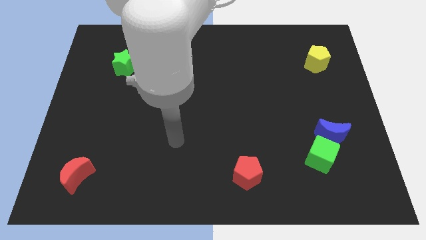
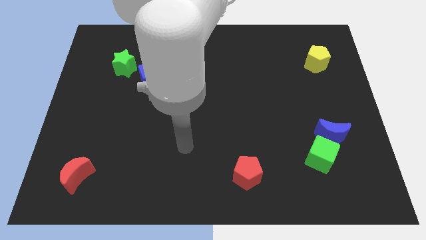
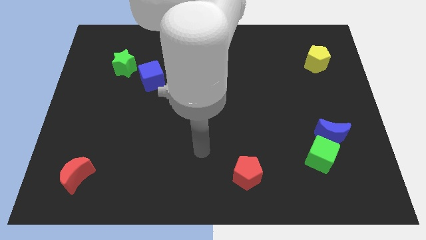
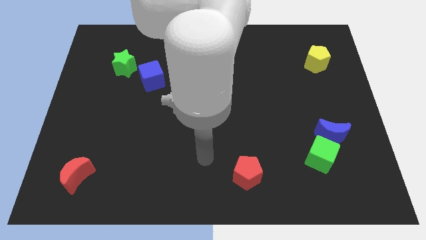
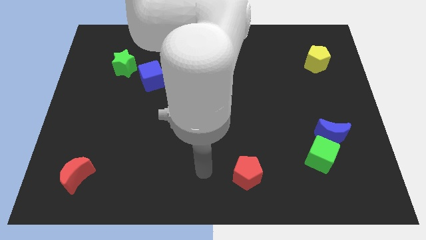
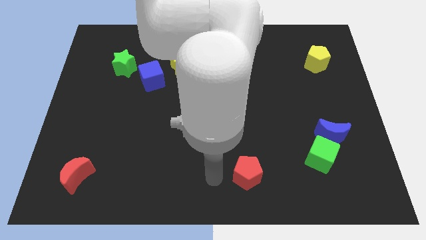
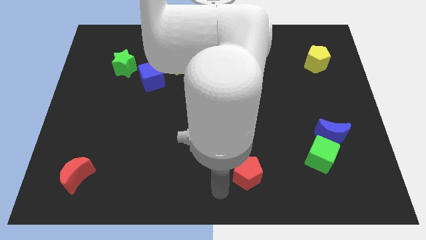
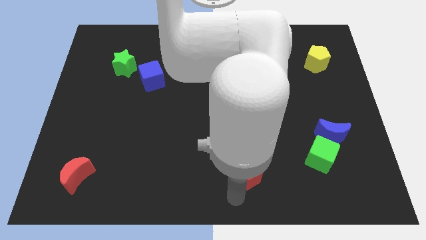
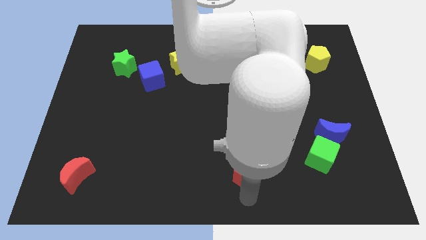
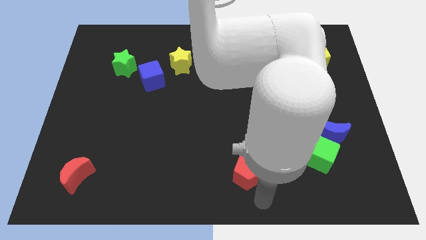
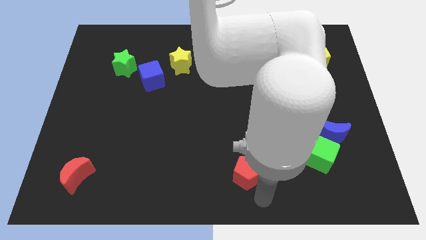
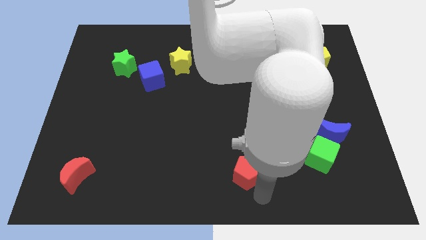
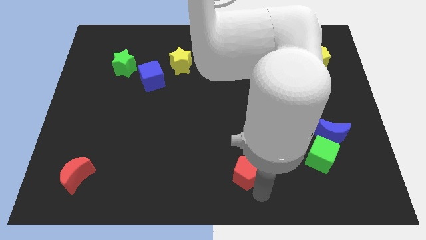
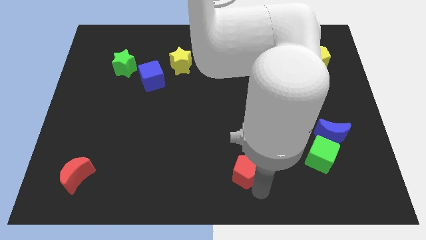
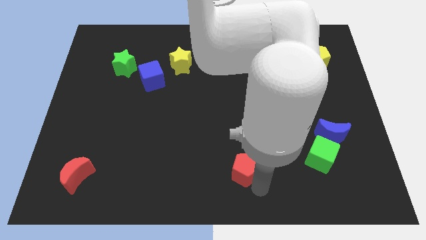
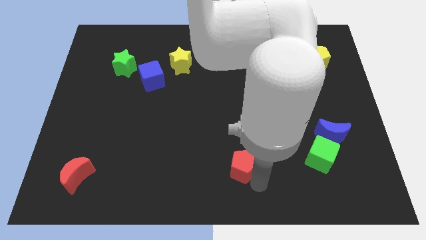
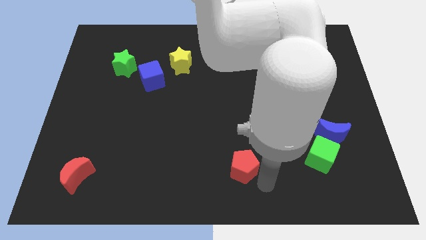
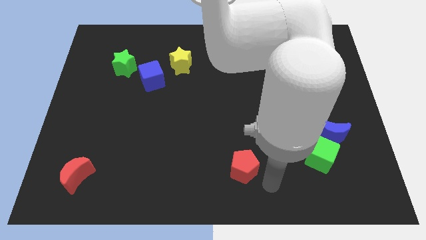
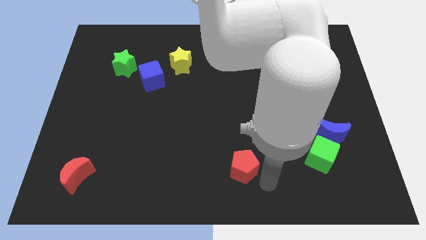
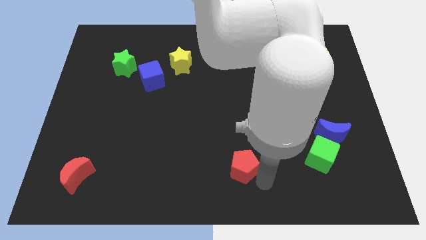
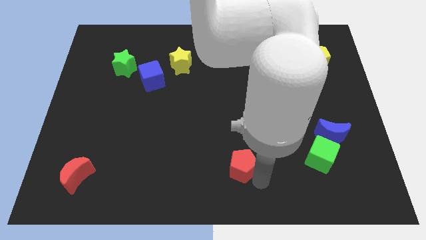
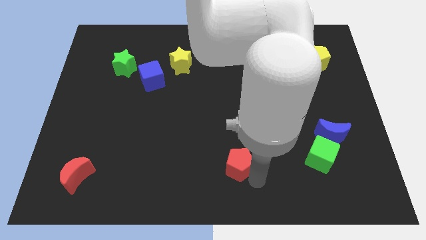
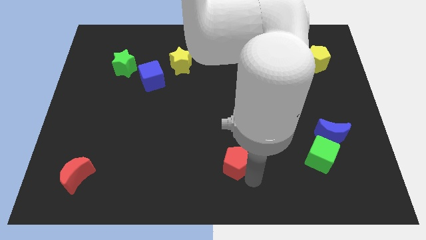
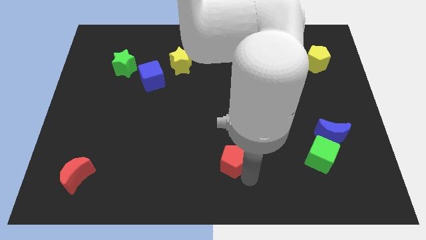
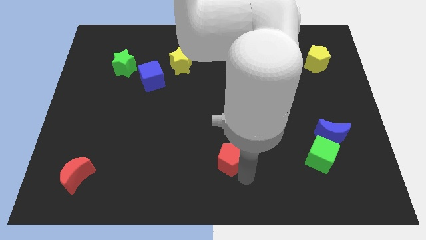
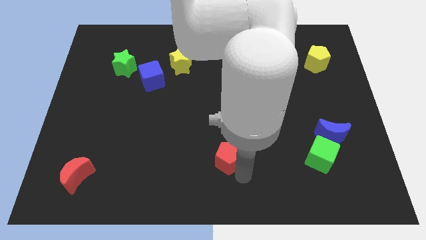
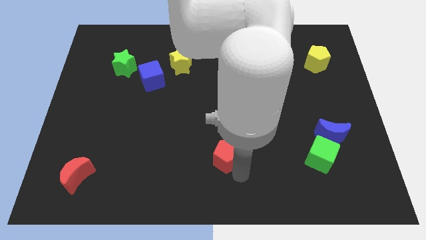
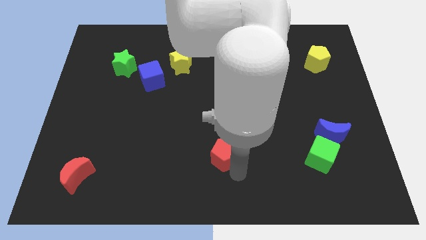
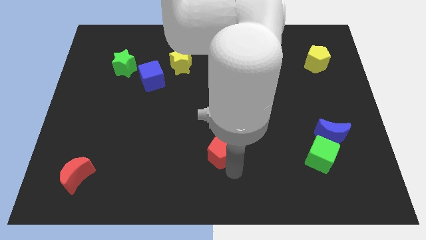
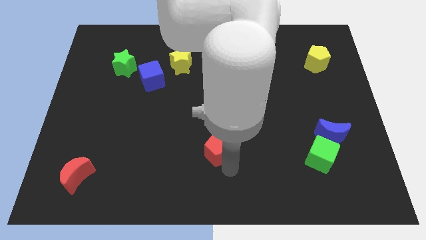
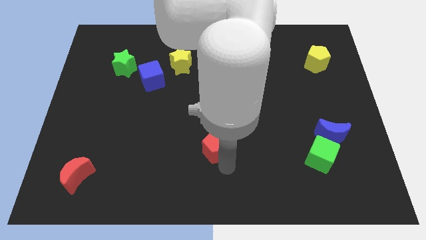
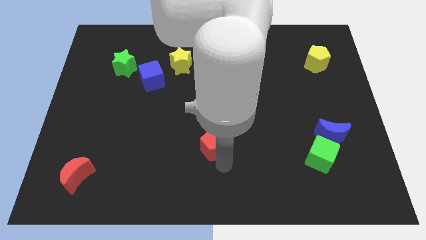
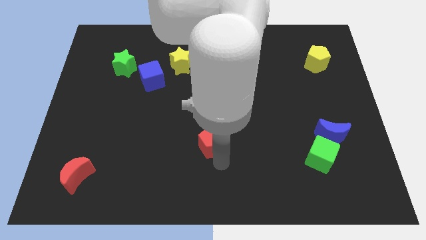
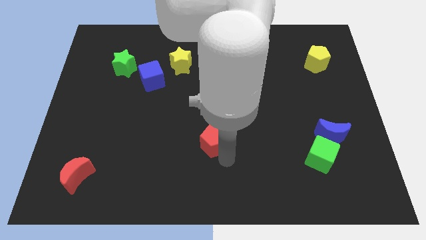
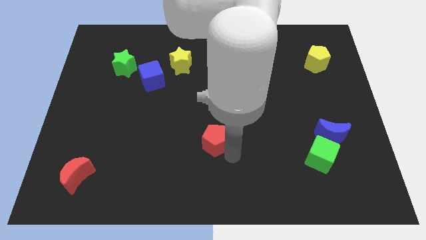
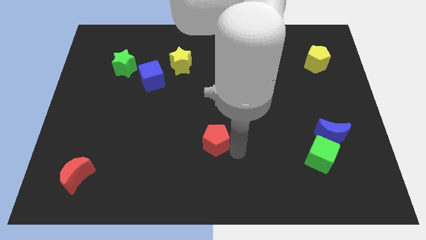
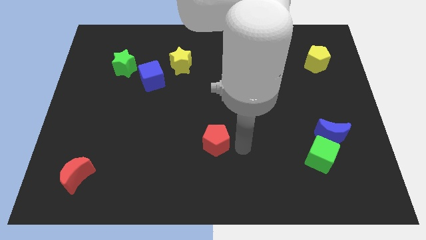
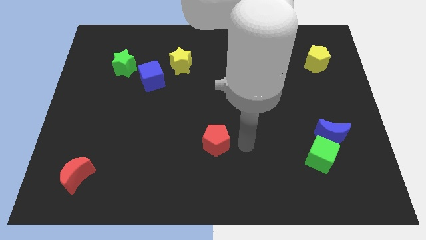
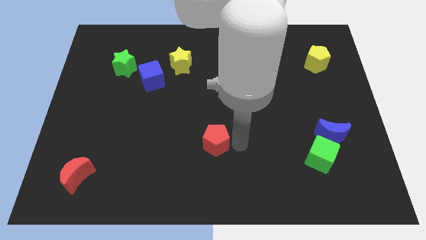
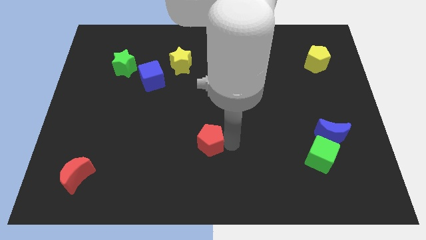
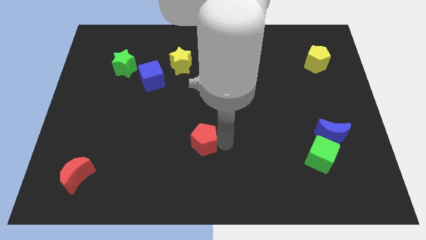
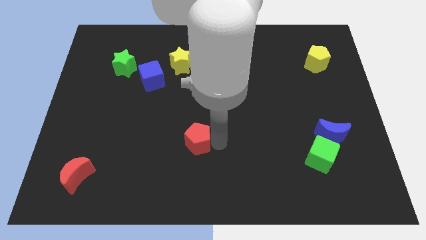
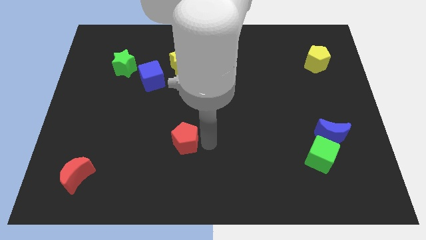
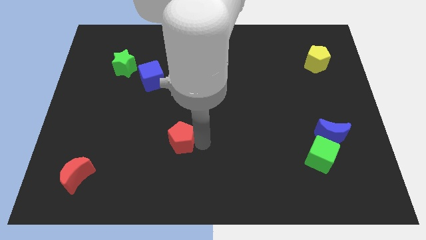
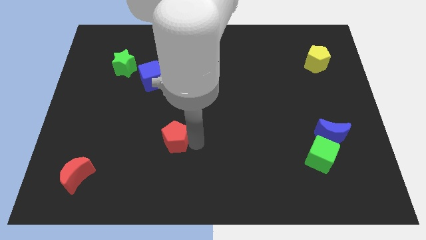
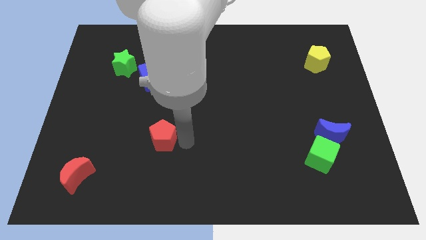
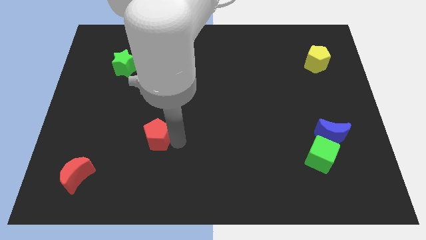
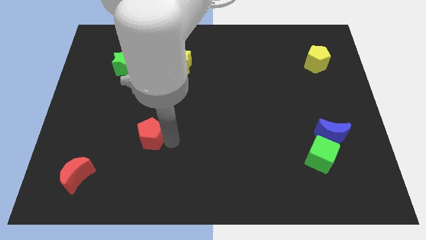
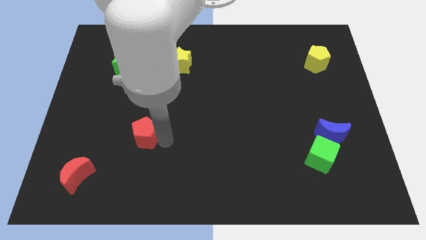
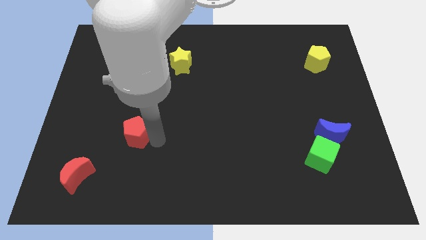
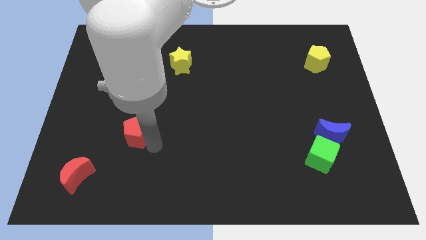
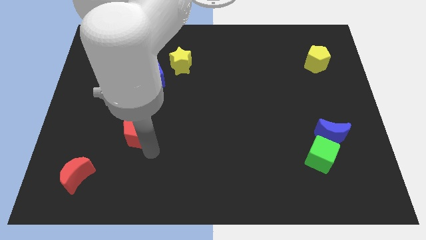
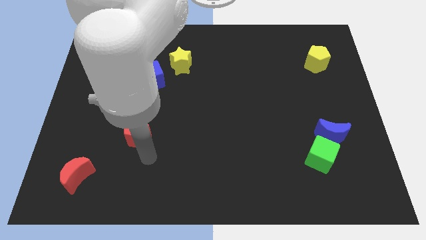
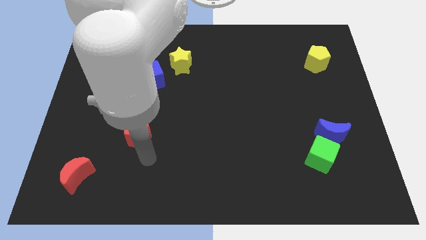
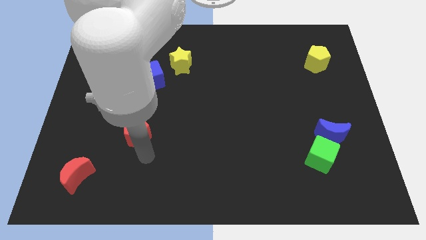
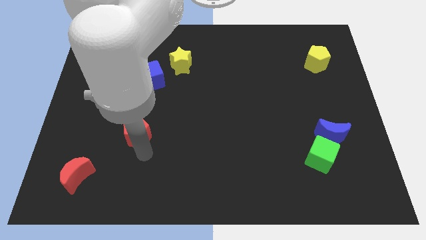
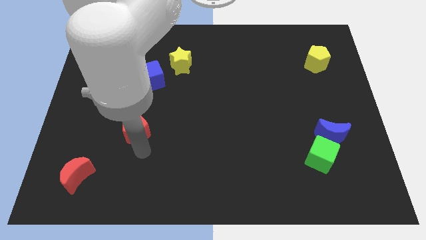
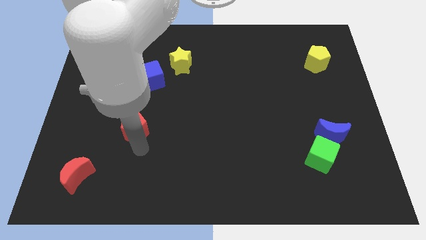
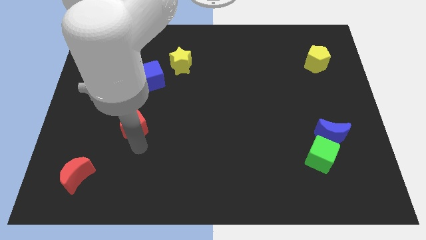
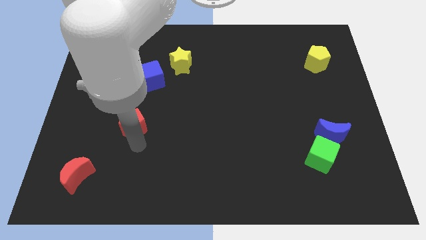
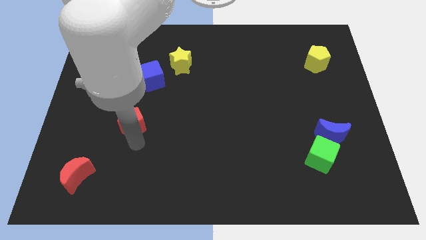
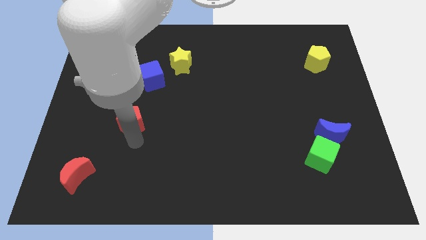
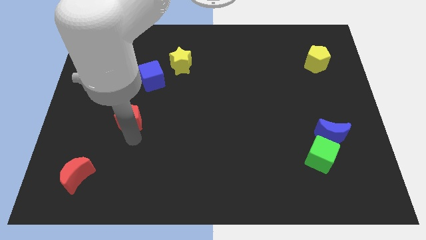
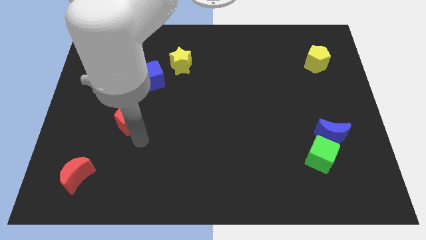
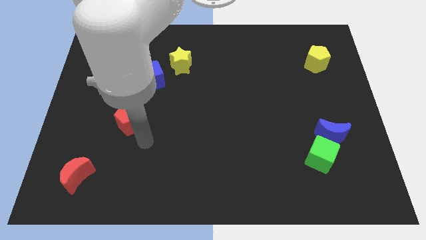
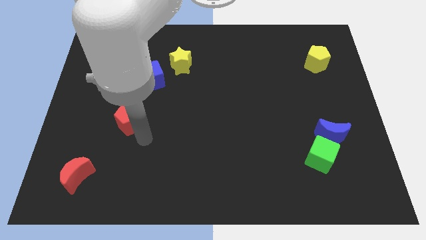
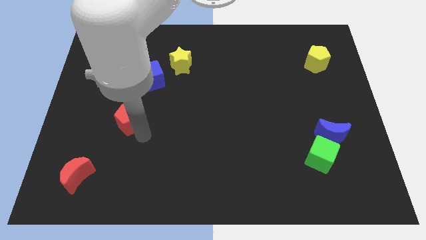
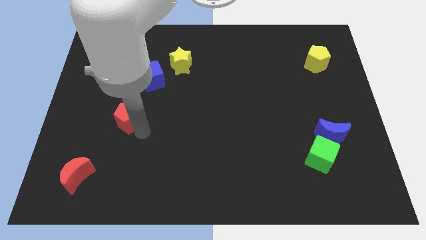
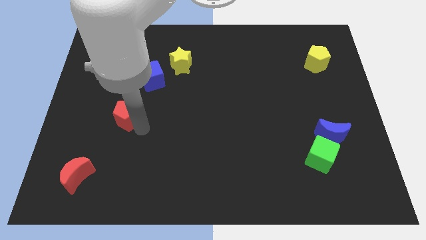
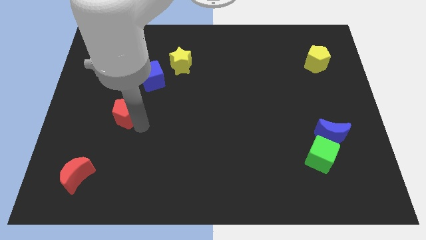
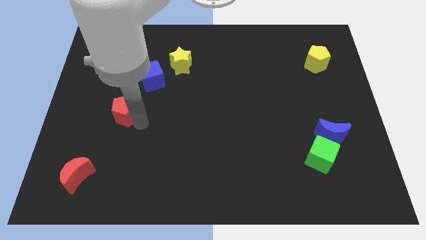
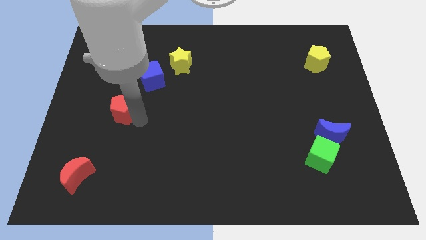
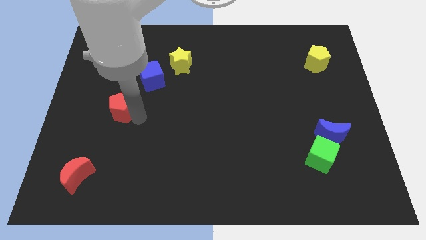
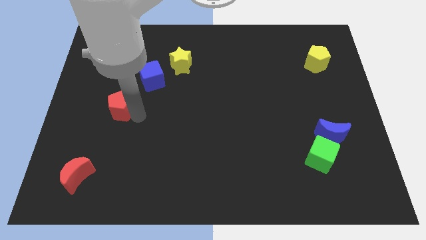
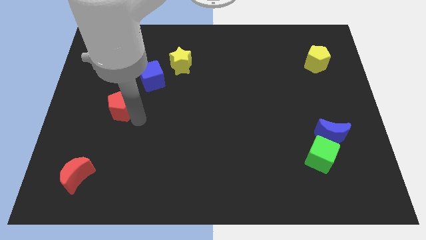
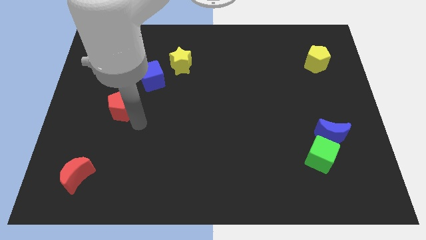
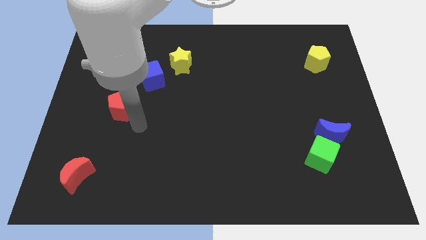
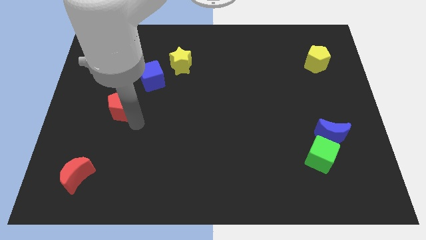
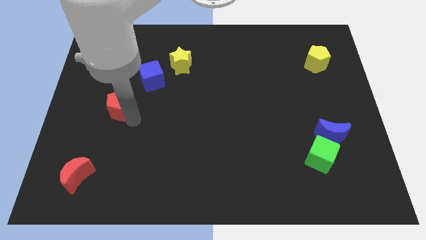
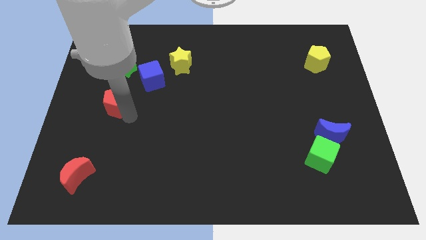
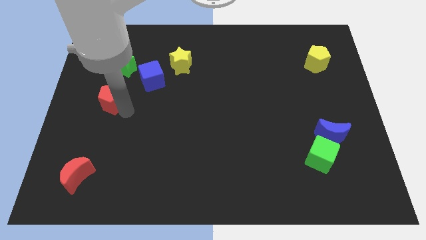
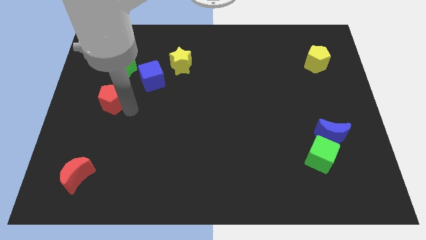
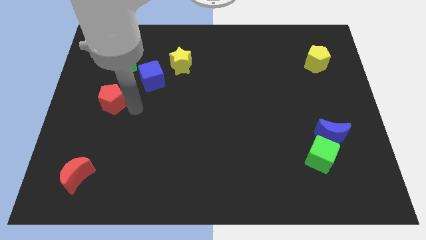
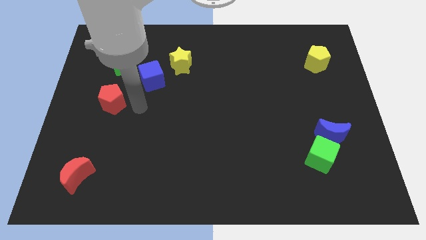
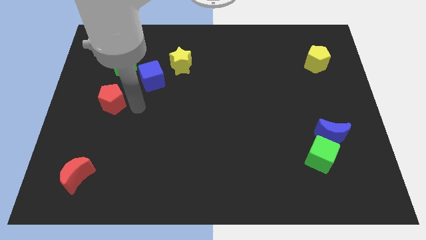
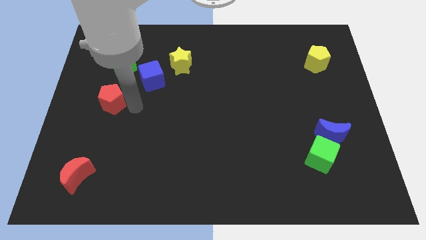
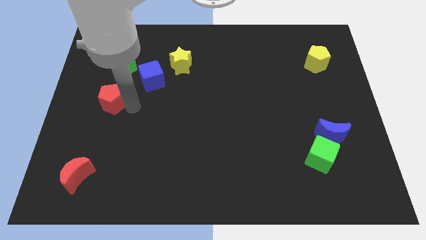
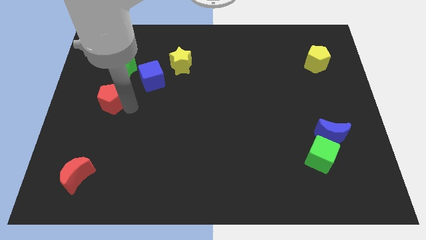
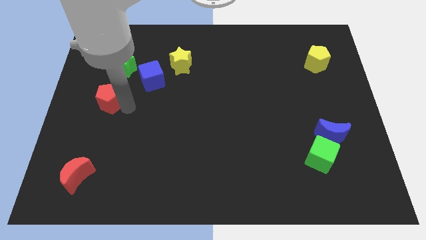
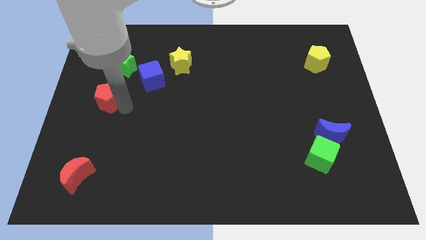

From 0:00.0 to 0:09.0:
put the red pentagon to the left side
